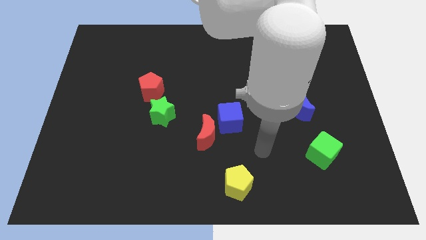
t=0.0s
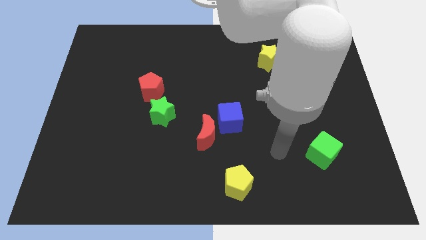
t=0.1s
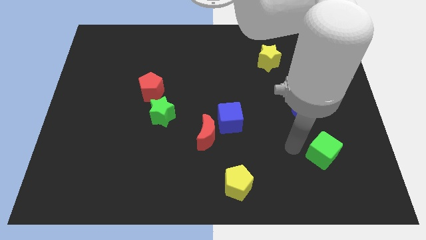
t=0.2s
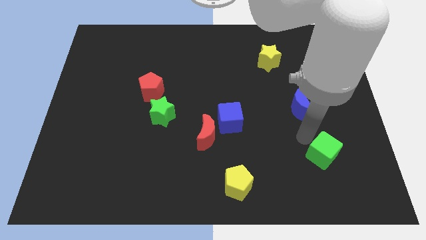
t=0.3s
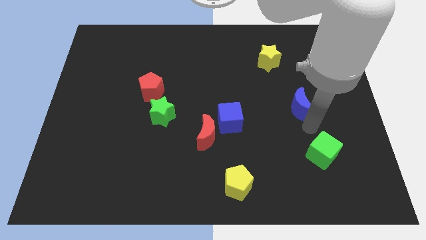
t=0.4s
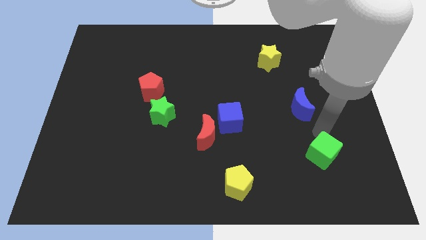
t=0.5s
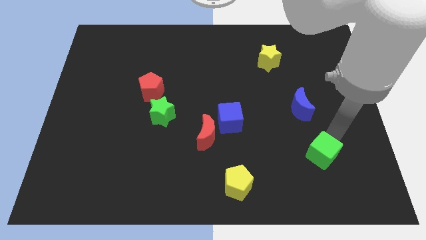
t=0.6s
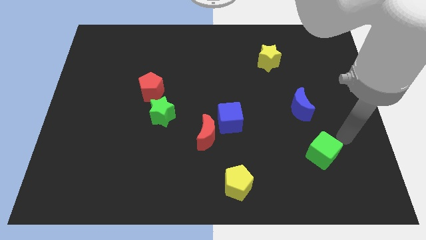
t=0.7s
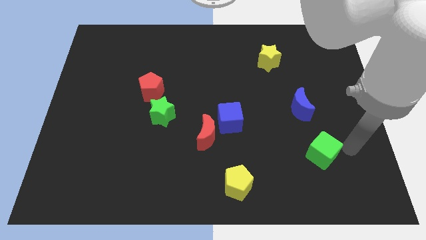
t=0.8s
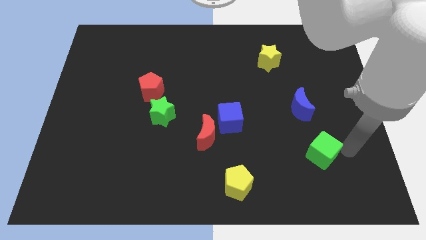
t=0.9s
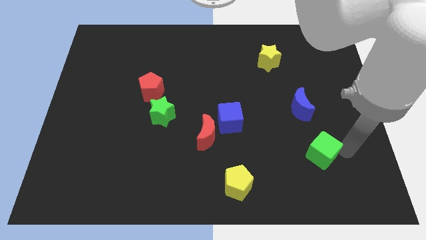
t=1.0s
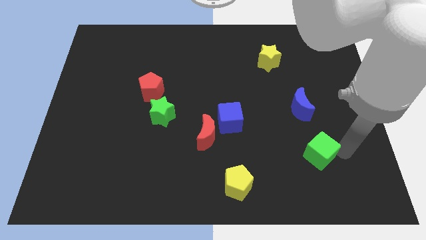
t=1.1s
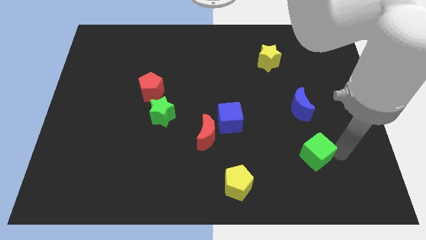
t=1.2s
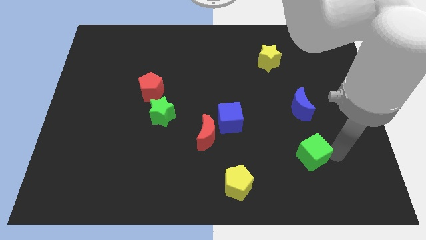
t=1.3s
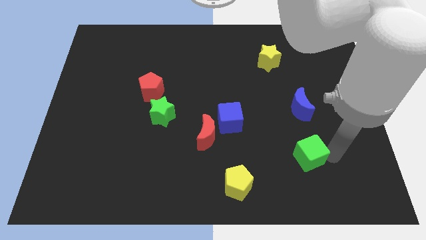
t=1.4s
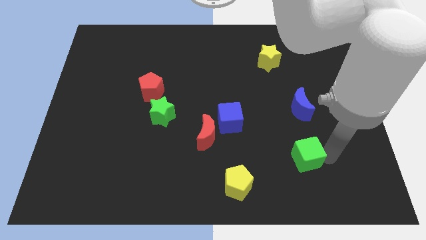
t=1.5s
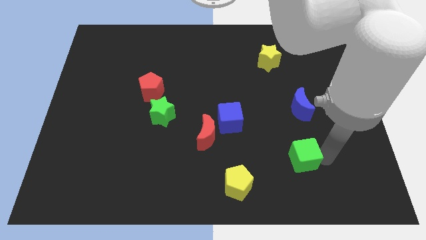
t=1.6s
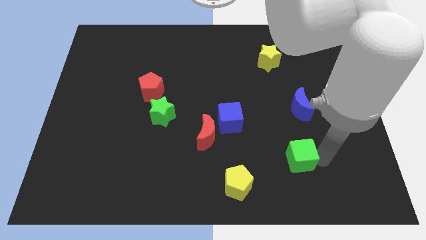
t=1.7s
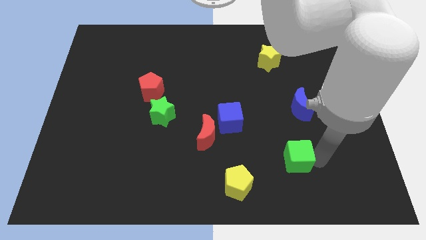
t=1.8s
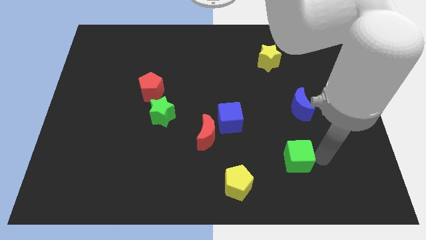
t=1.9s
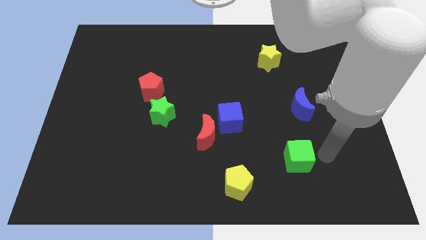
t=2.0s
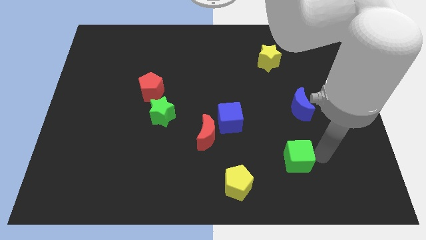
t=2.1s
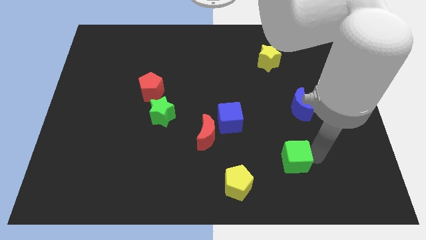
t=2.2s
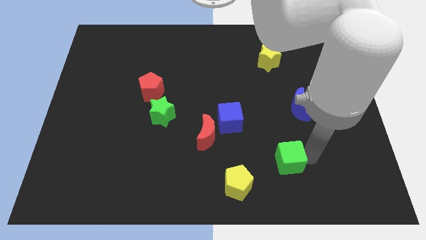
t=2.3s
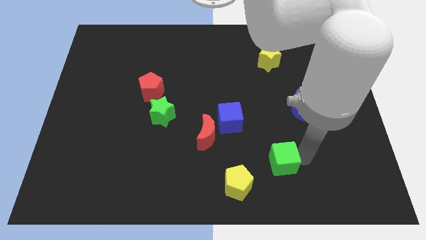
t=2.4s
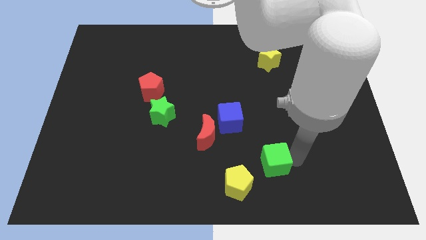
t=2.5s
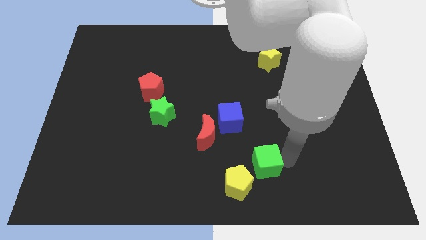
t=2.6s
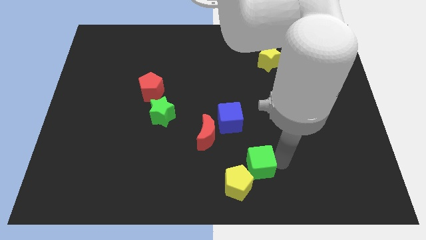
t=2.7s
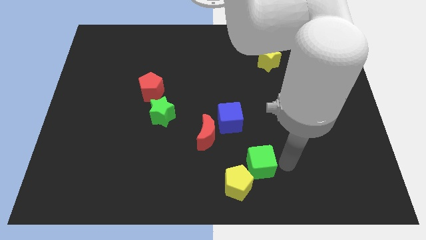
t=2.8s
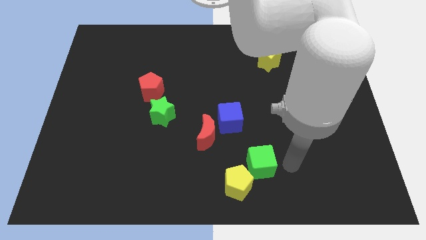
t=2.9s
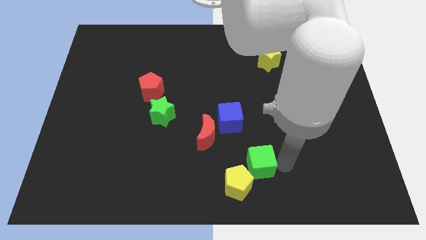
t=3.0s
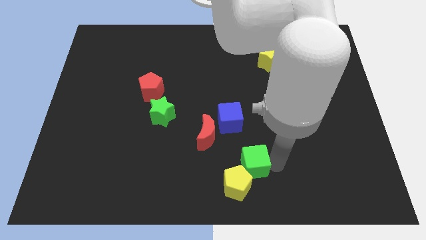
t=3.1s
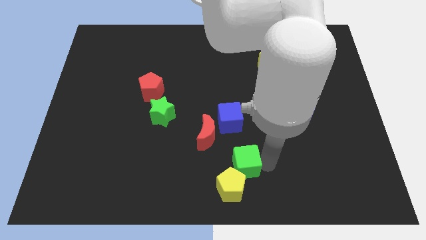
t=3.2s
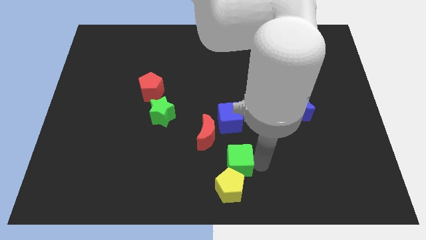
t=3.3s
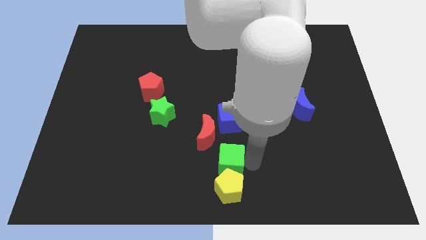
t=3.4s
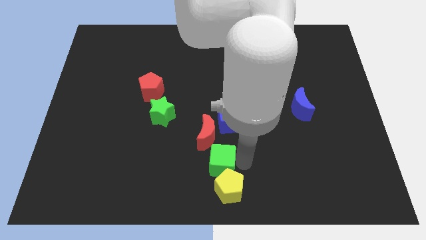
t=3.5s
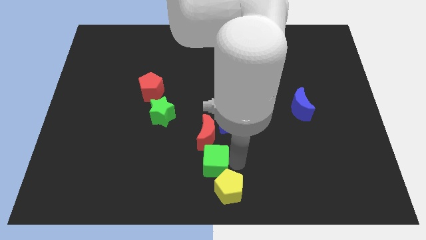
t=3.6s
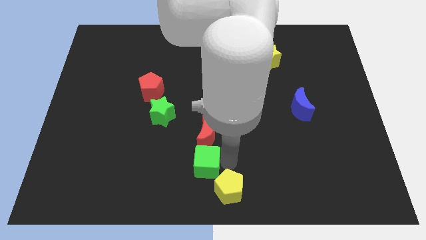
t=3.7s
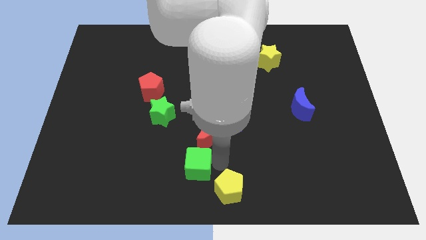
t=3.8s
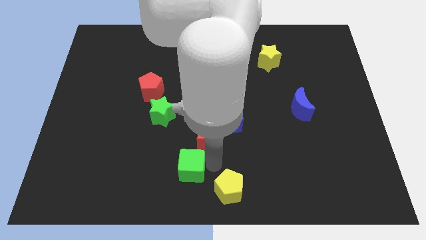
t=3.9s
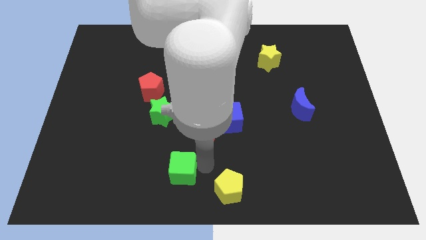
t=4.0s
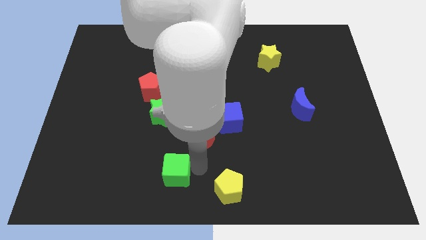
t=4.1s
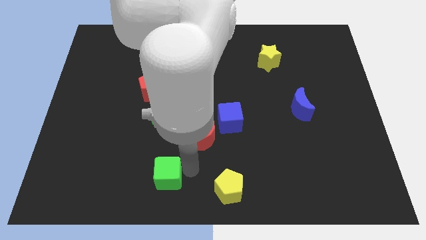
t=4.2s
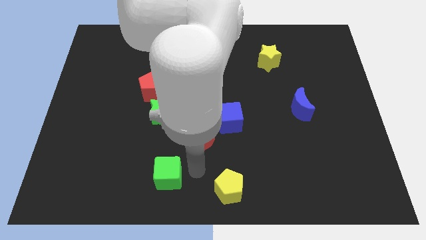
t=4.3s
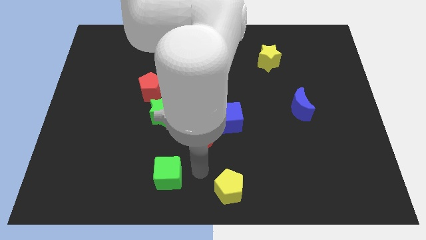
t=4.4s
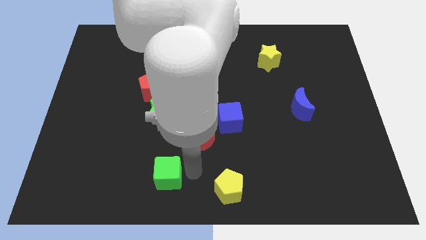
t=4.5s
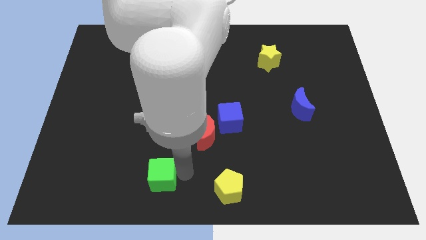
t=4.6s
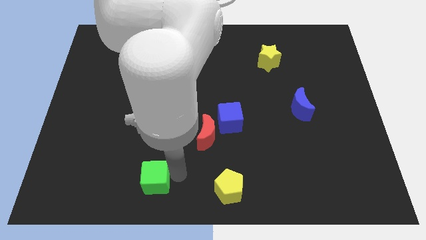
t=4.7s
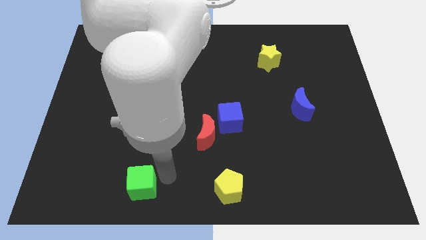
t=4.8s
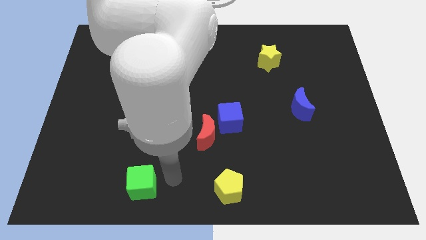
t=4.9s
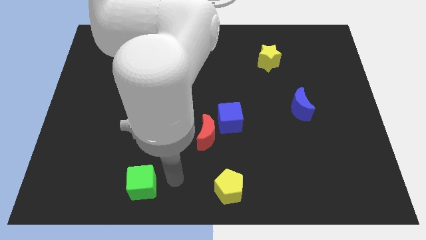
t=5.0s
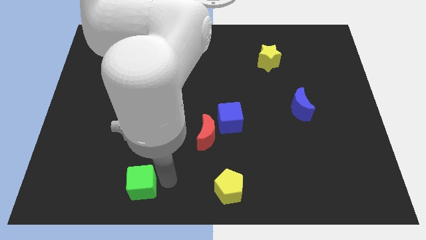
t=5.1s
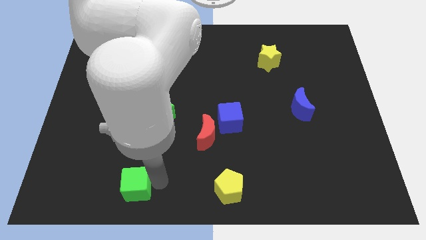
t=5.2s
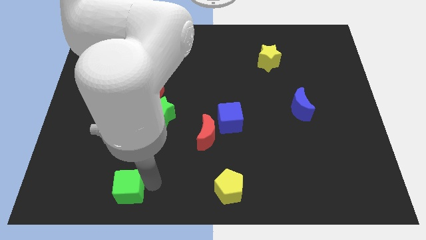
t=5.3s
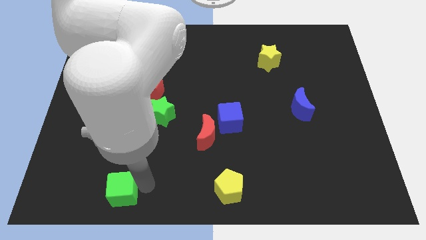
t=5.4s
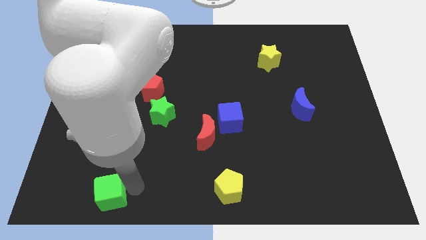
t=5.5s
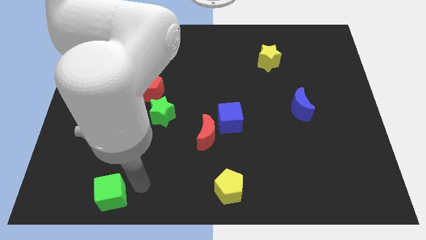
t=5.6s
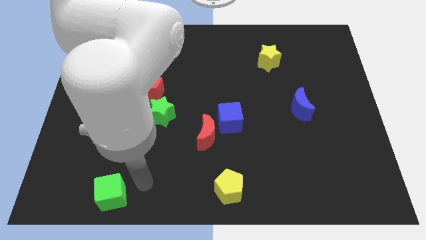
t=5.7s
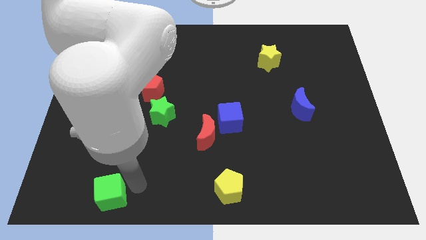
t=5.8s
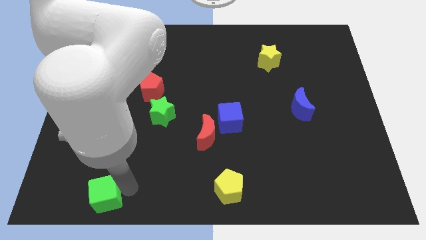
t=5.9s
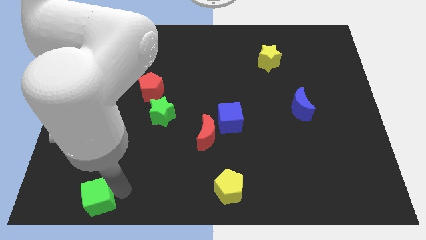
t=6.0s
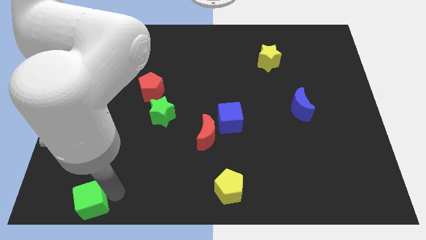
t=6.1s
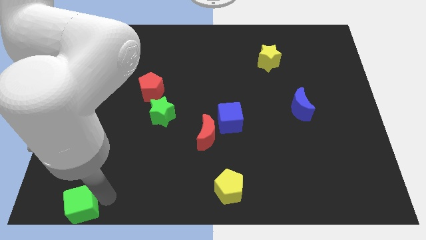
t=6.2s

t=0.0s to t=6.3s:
slide the green cube to the bottom left
